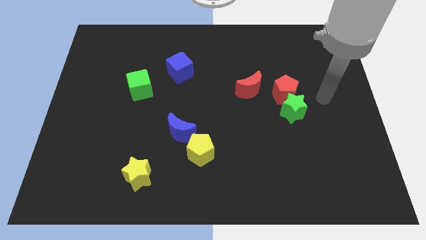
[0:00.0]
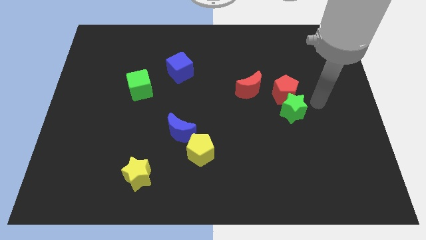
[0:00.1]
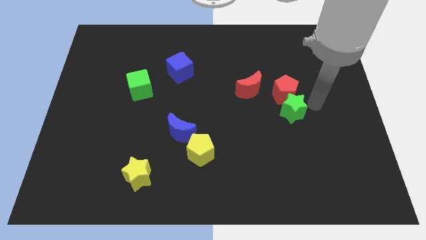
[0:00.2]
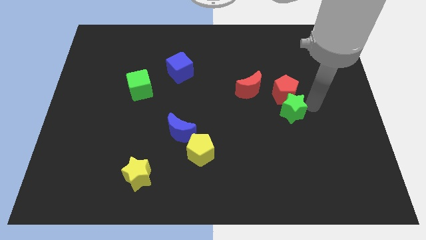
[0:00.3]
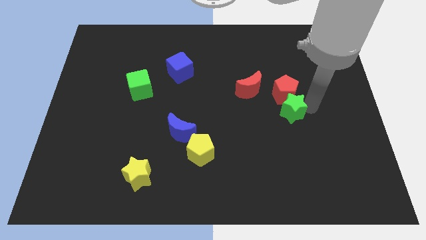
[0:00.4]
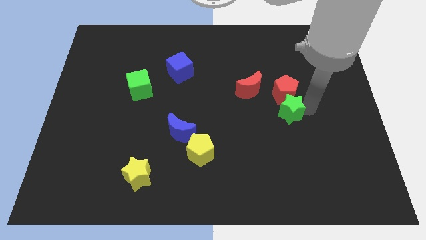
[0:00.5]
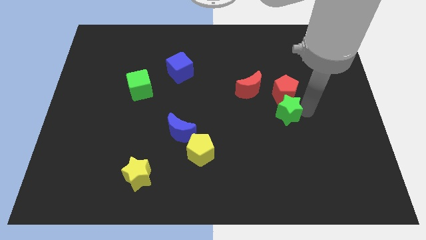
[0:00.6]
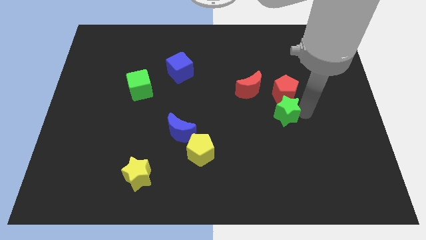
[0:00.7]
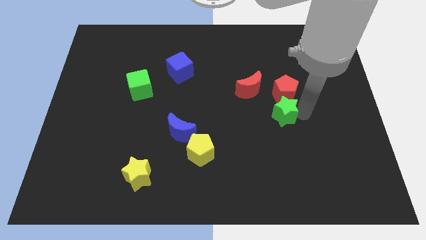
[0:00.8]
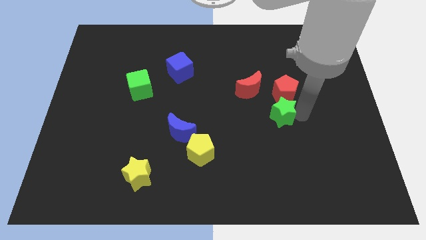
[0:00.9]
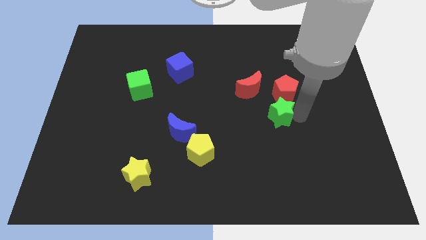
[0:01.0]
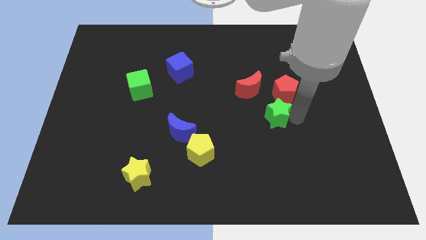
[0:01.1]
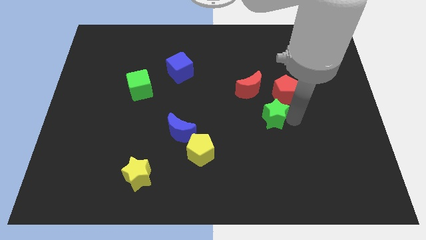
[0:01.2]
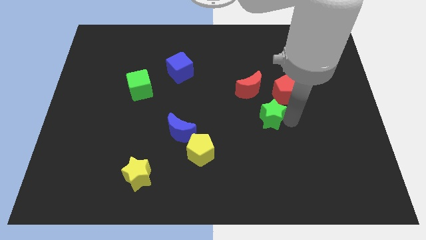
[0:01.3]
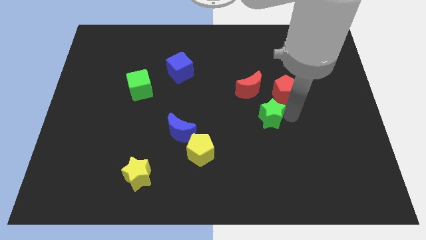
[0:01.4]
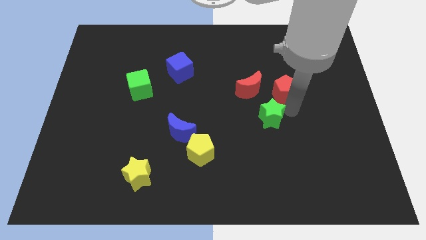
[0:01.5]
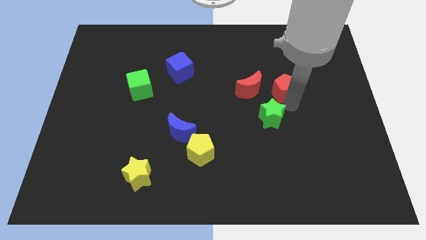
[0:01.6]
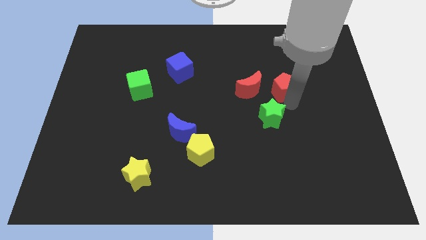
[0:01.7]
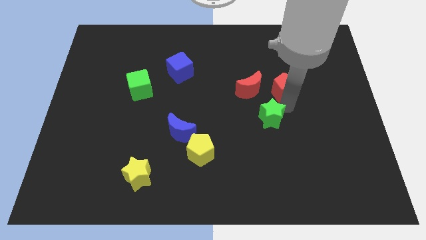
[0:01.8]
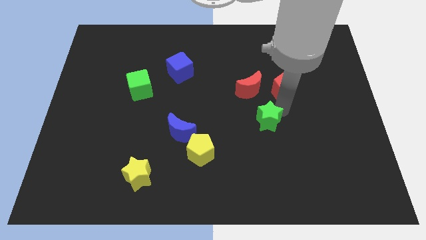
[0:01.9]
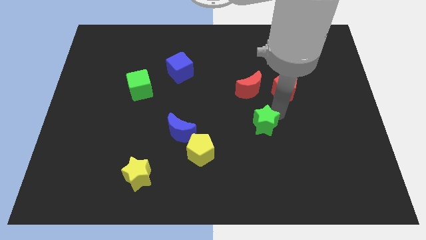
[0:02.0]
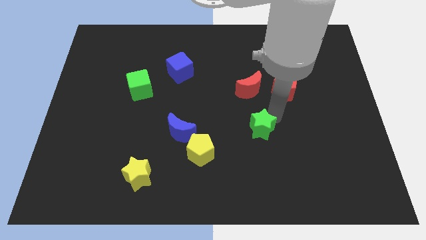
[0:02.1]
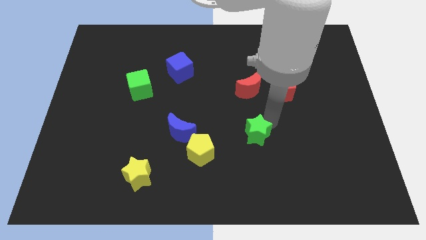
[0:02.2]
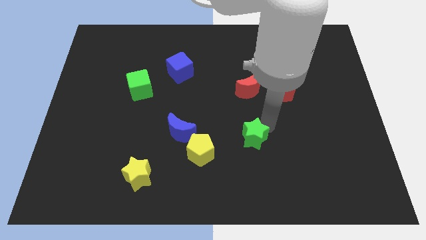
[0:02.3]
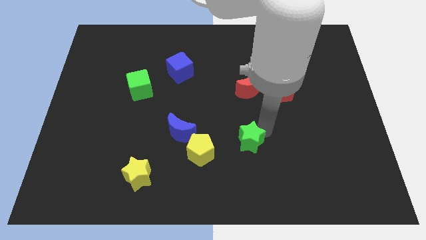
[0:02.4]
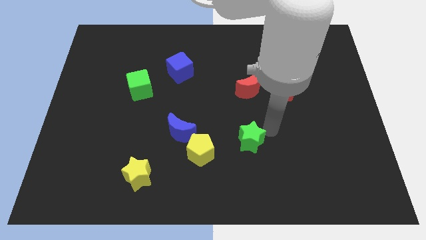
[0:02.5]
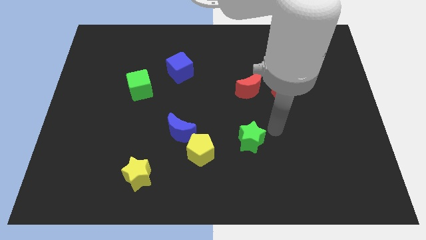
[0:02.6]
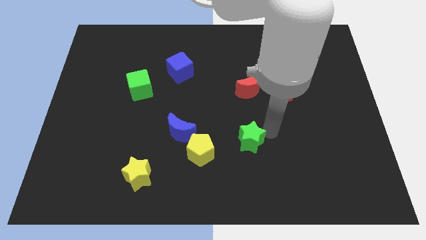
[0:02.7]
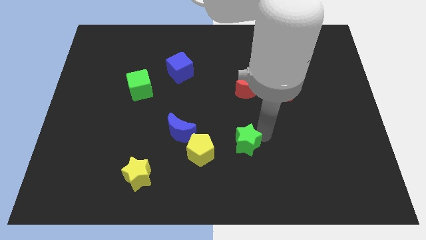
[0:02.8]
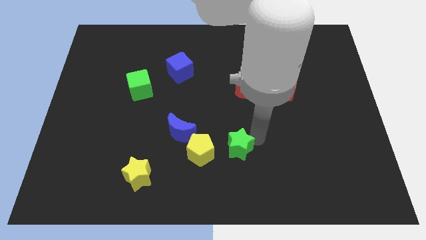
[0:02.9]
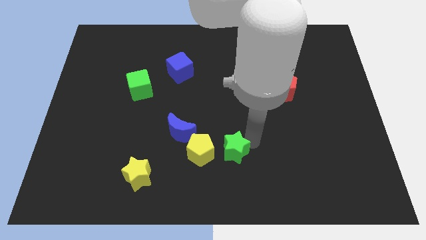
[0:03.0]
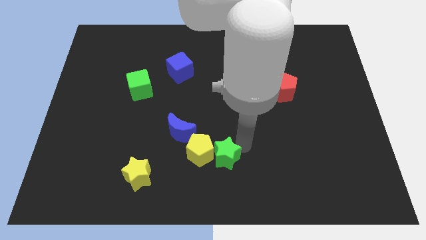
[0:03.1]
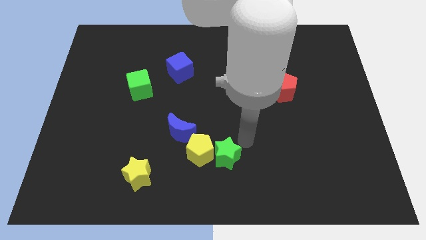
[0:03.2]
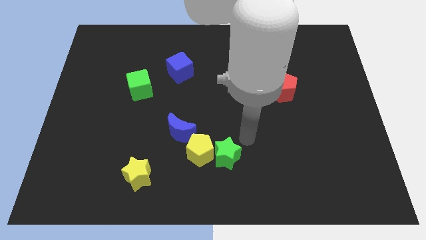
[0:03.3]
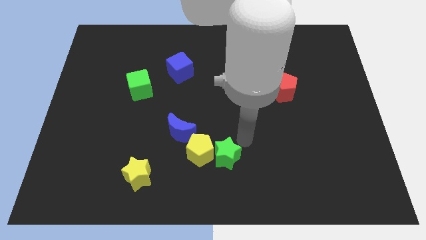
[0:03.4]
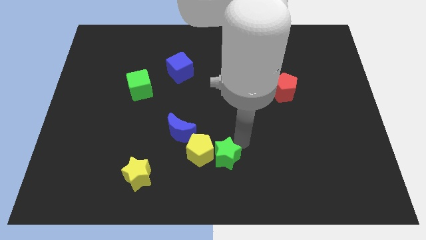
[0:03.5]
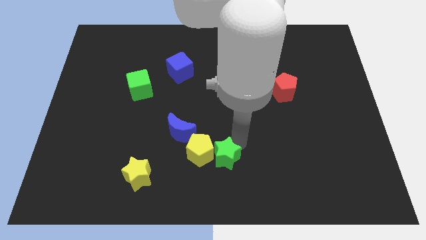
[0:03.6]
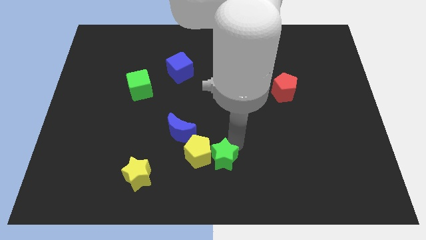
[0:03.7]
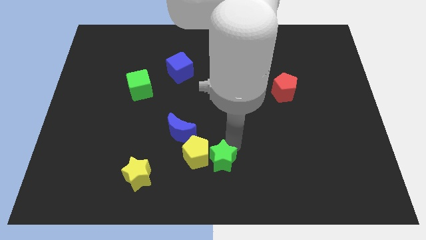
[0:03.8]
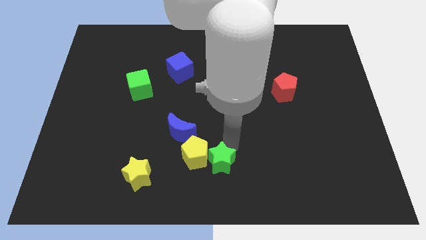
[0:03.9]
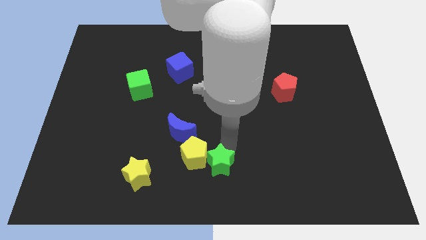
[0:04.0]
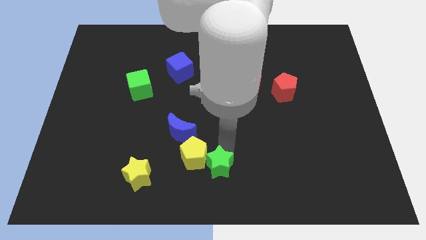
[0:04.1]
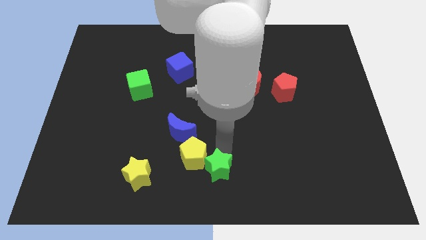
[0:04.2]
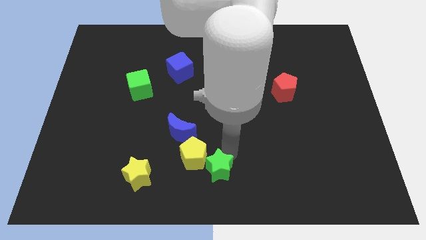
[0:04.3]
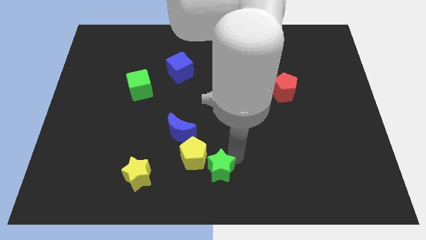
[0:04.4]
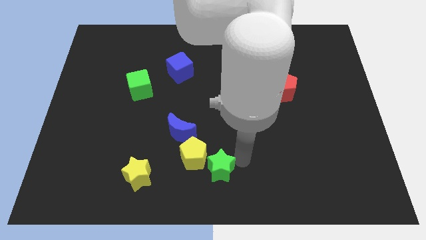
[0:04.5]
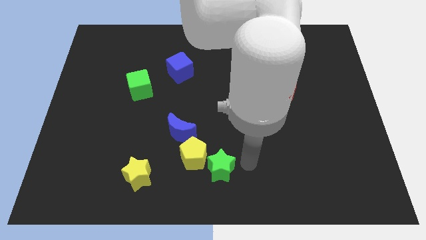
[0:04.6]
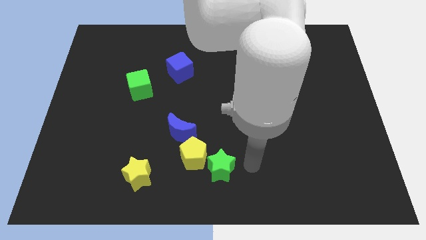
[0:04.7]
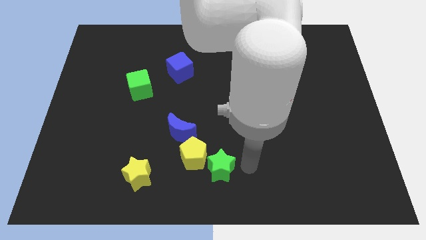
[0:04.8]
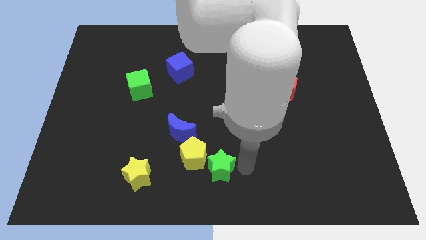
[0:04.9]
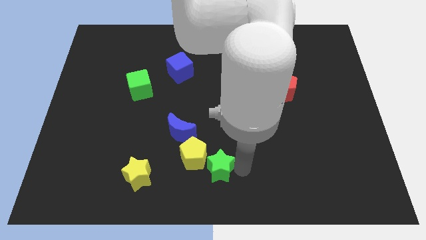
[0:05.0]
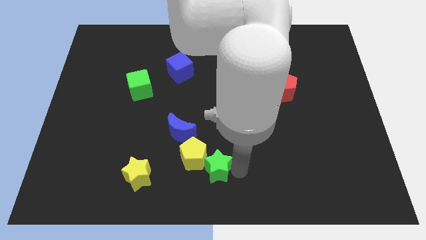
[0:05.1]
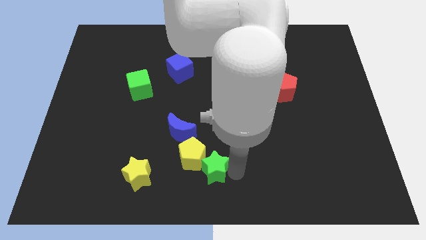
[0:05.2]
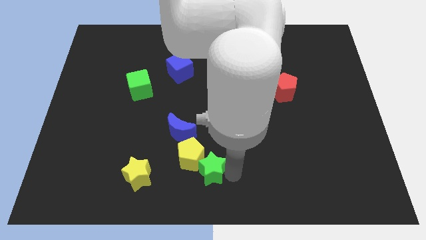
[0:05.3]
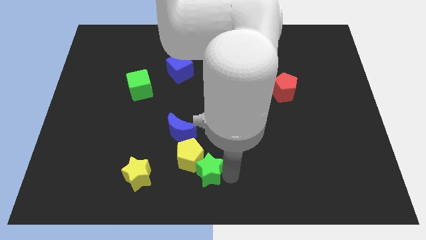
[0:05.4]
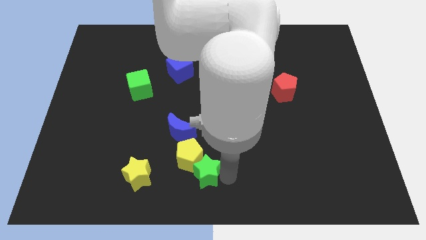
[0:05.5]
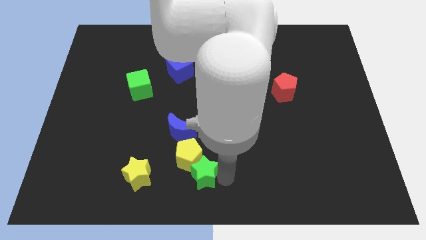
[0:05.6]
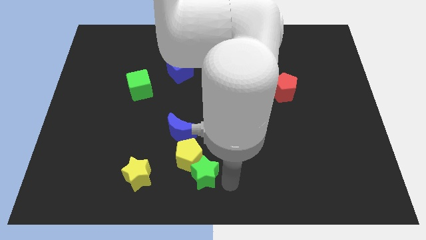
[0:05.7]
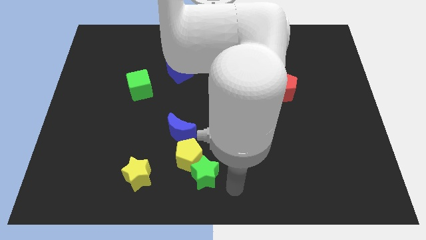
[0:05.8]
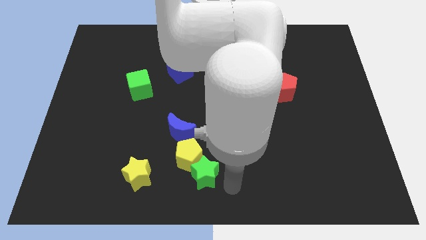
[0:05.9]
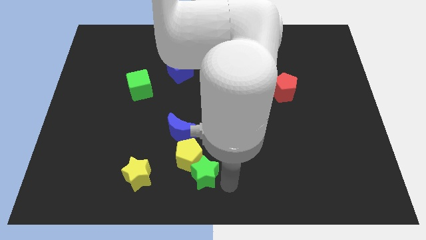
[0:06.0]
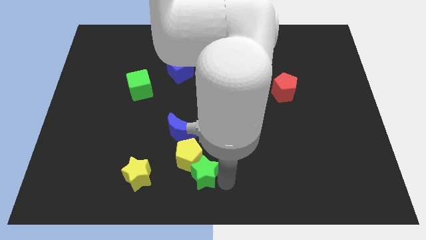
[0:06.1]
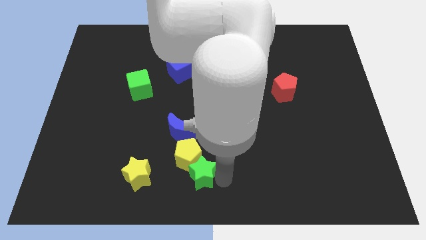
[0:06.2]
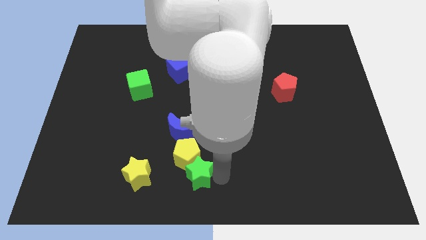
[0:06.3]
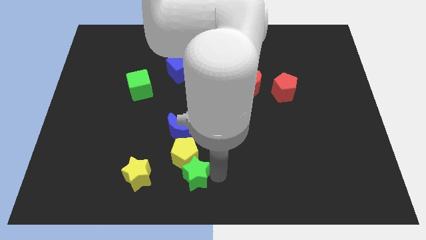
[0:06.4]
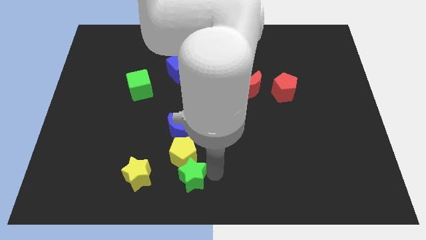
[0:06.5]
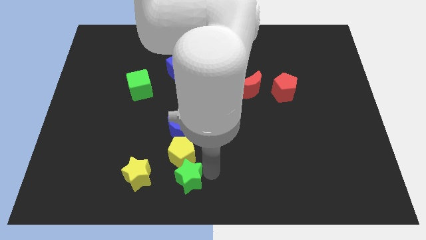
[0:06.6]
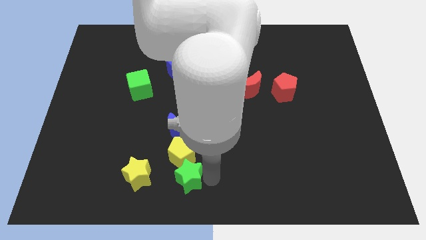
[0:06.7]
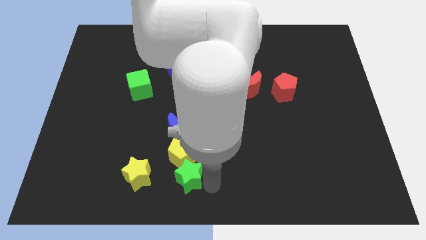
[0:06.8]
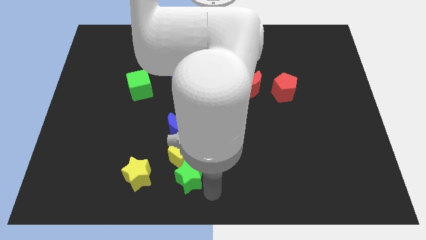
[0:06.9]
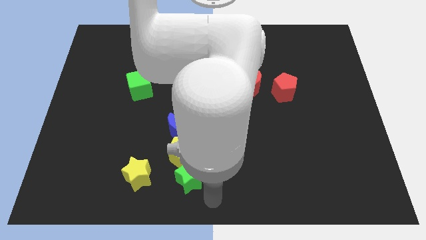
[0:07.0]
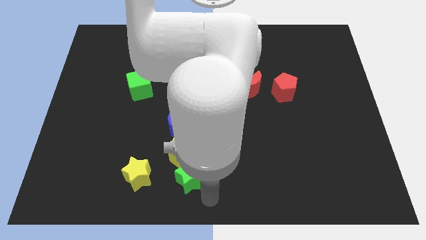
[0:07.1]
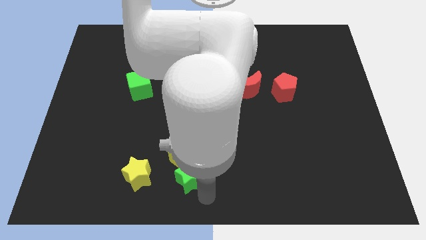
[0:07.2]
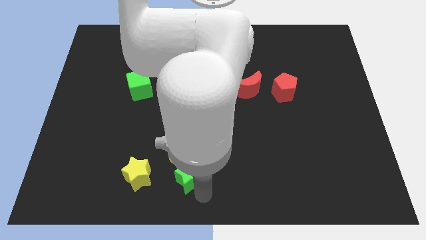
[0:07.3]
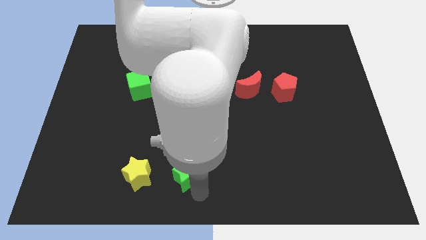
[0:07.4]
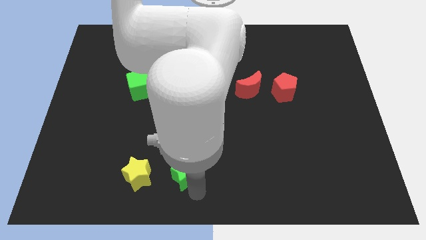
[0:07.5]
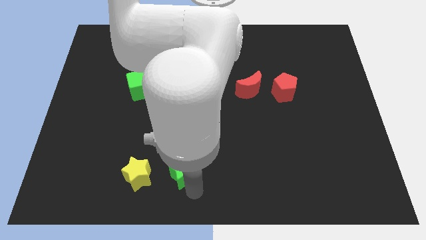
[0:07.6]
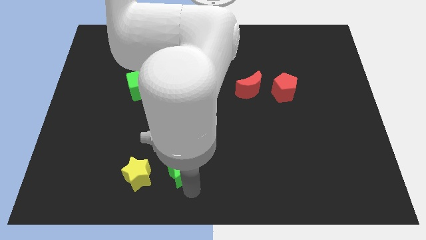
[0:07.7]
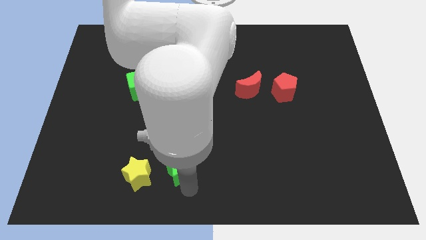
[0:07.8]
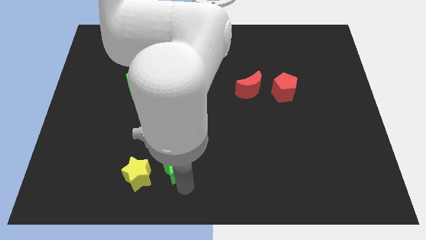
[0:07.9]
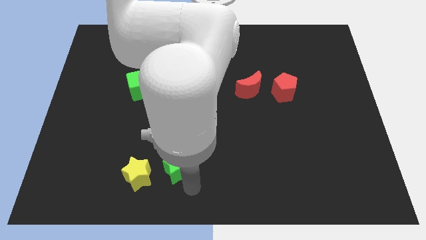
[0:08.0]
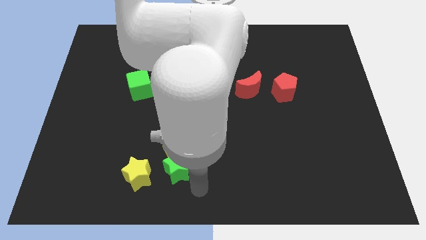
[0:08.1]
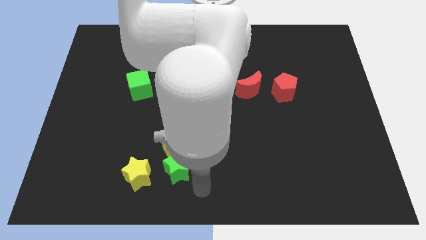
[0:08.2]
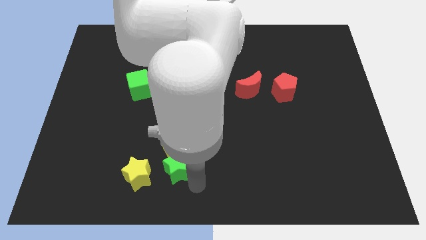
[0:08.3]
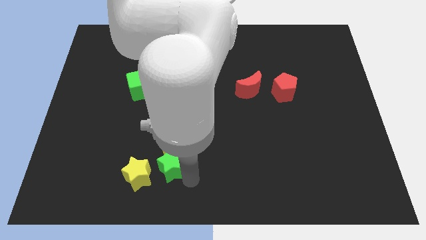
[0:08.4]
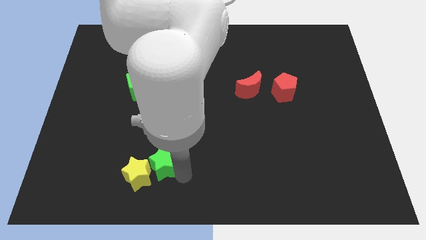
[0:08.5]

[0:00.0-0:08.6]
slide the green star to the bottom left of the blue moon
